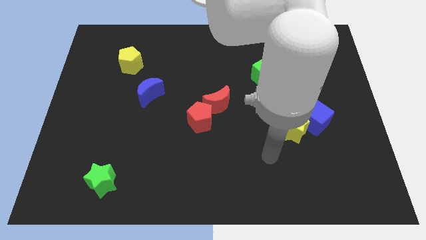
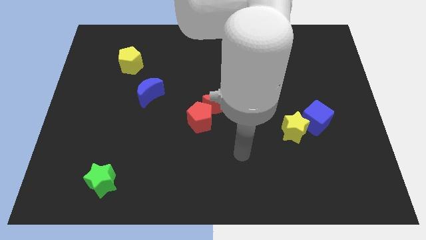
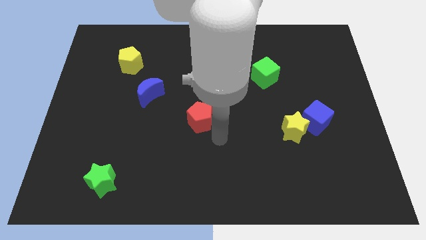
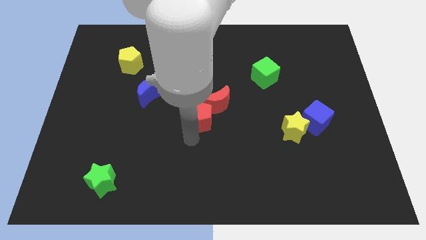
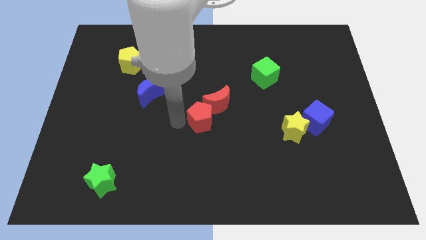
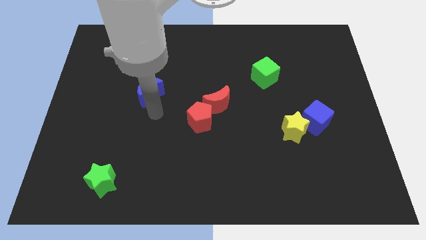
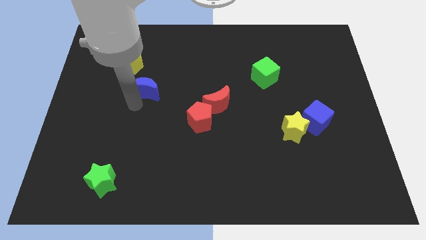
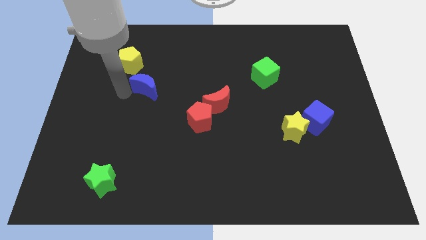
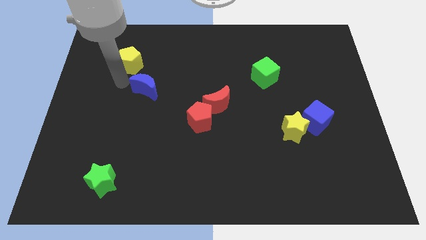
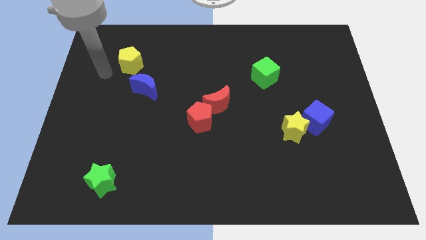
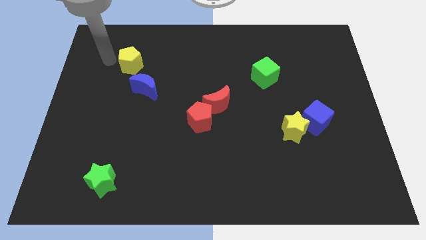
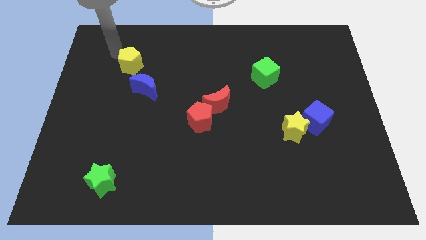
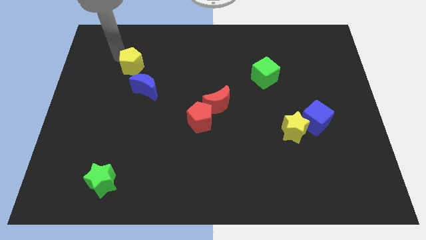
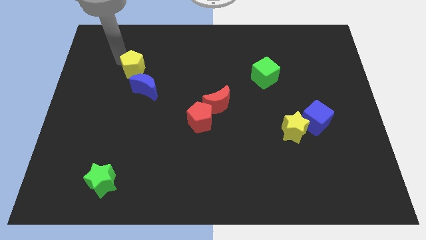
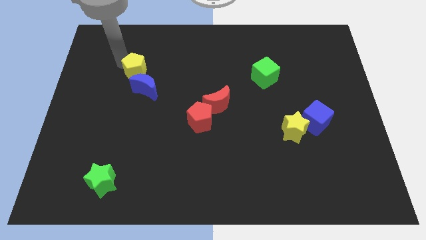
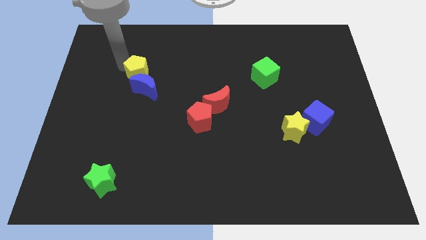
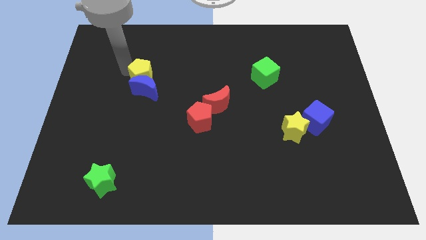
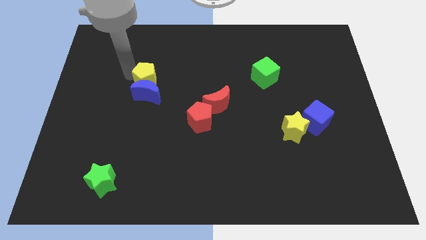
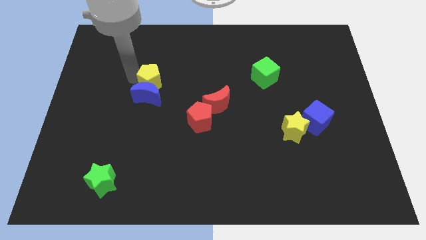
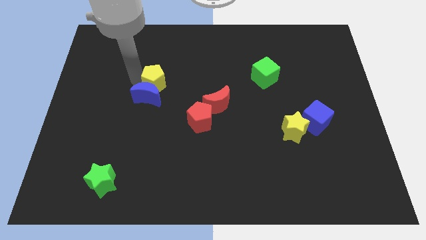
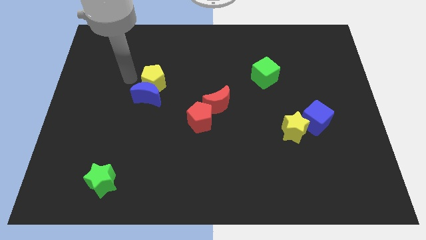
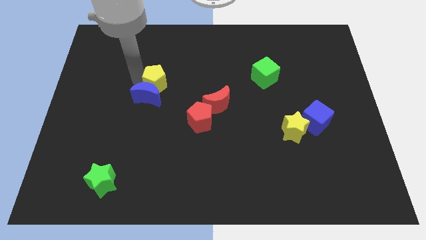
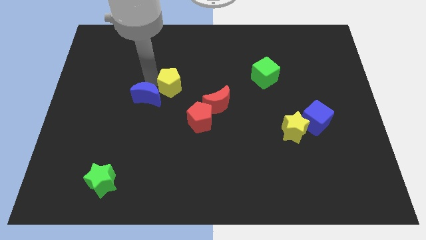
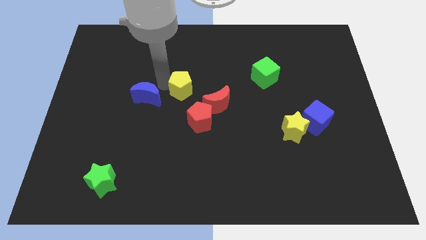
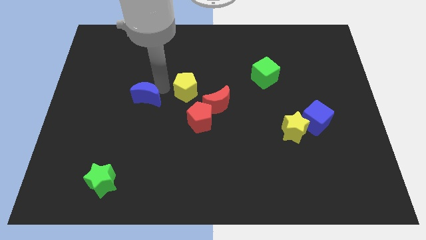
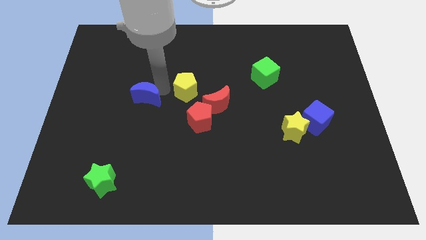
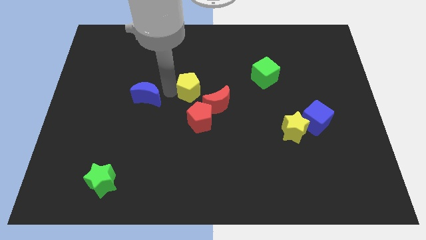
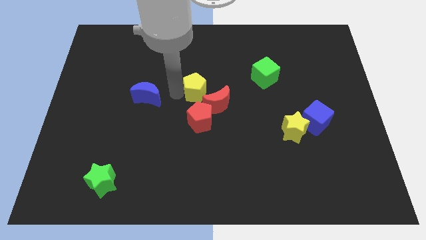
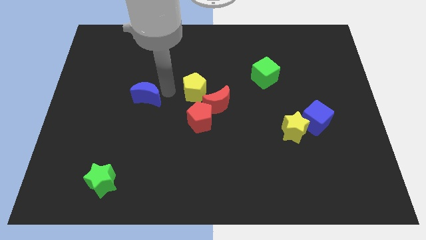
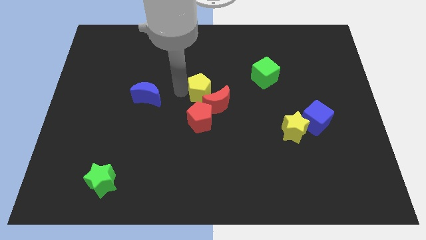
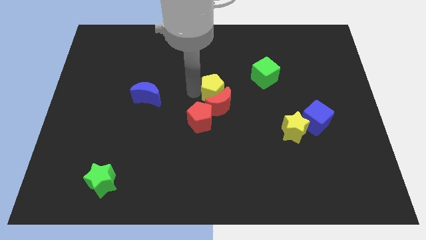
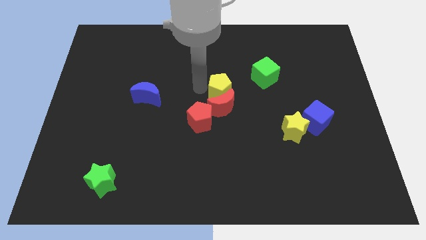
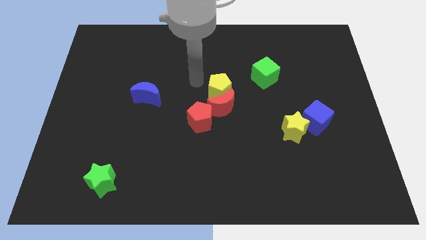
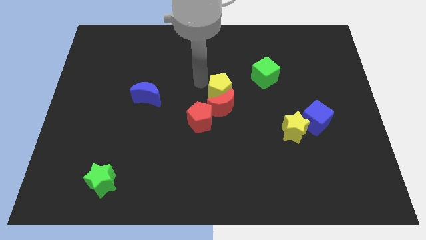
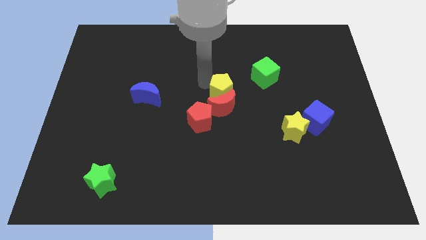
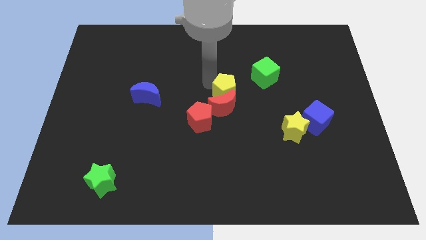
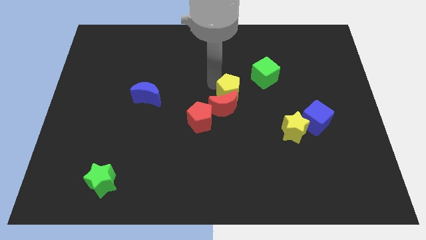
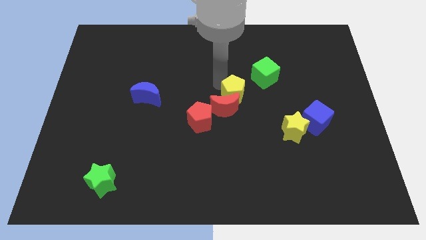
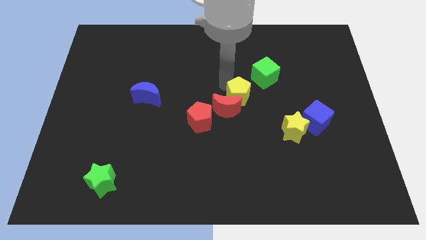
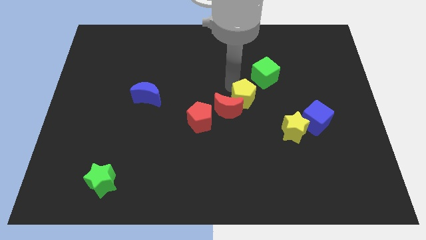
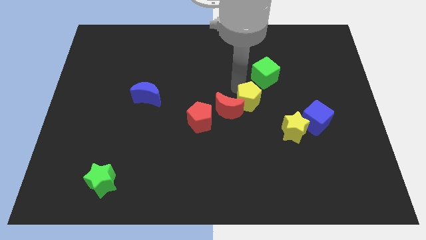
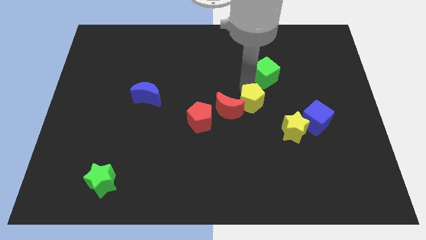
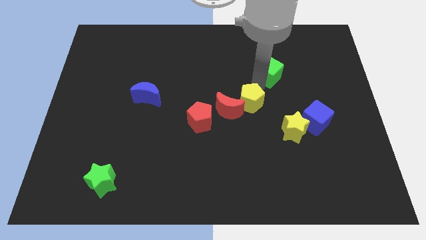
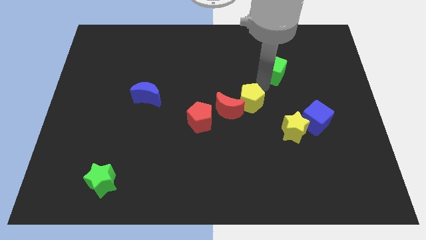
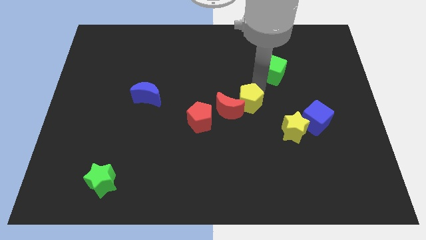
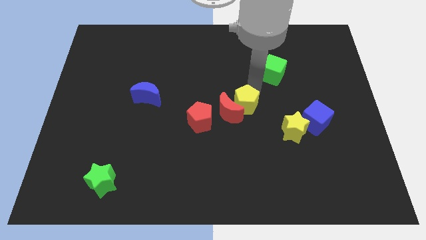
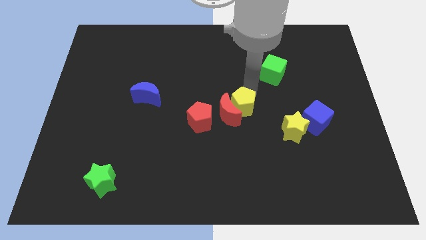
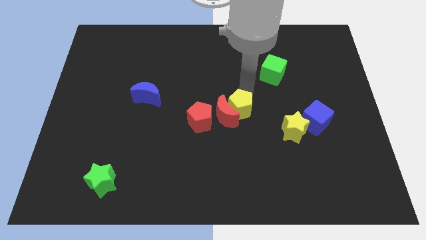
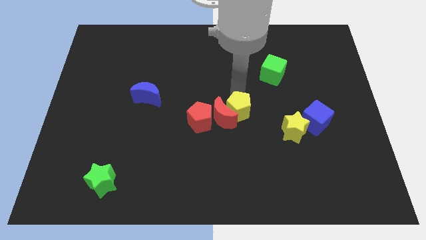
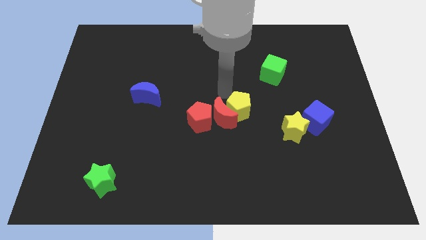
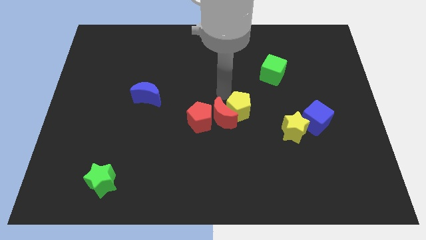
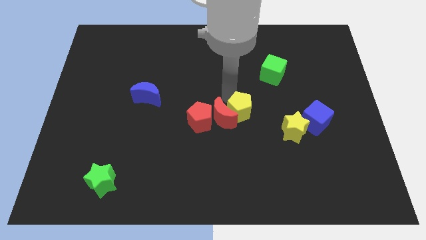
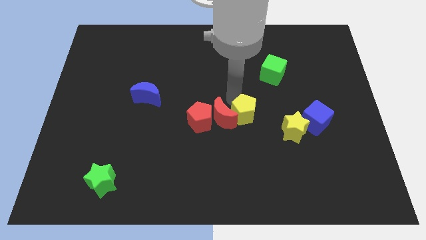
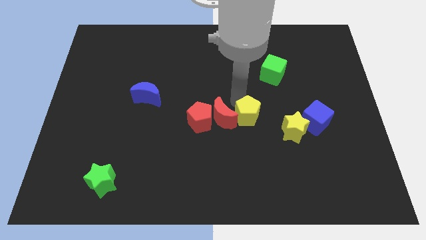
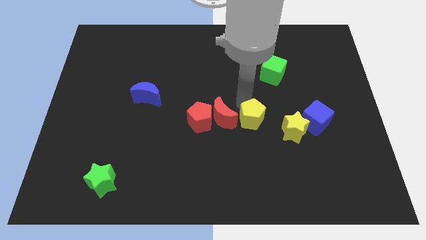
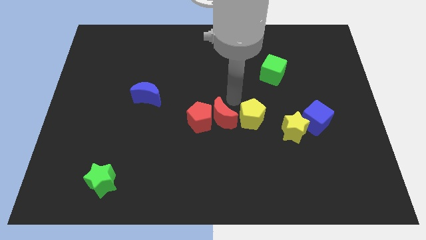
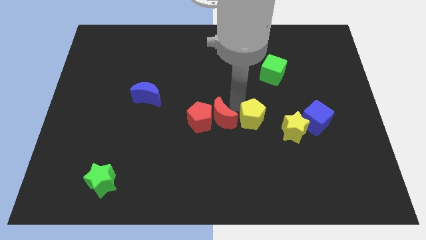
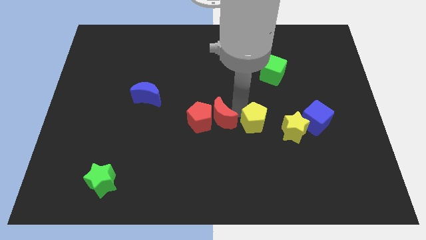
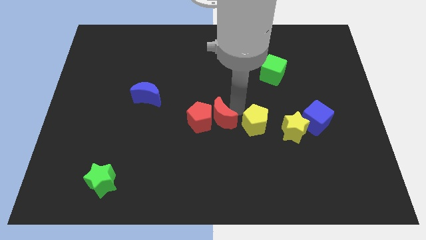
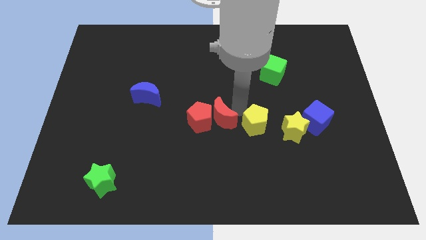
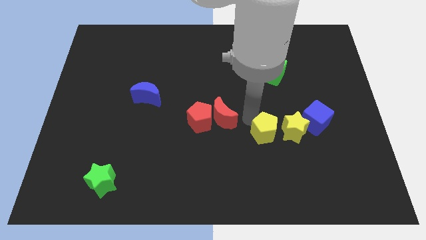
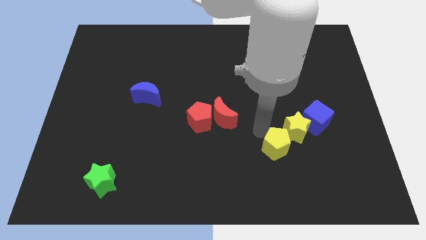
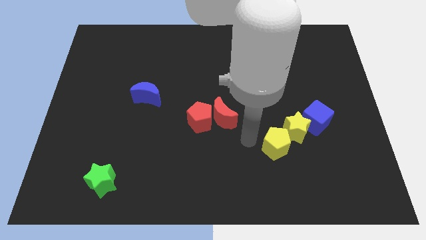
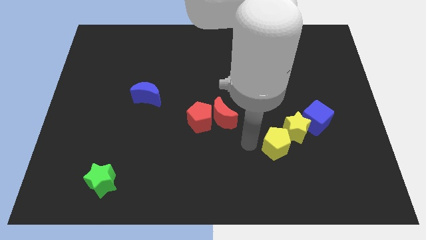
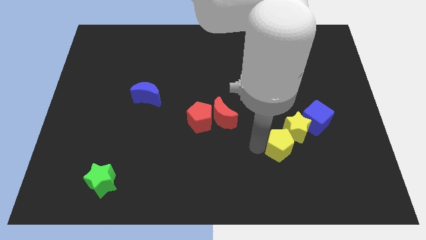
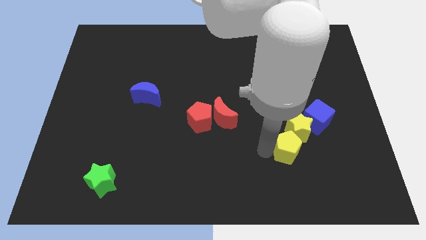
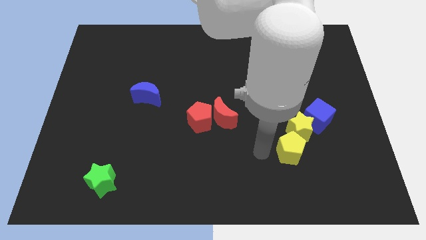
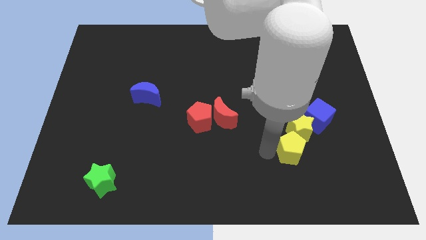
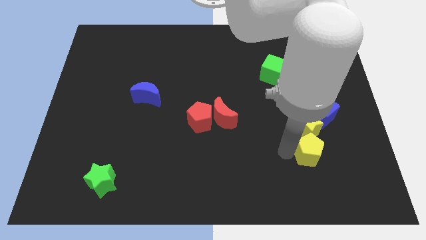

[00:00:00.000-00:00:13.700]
put the yellow pentagon diagonally down and to the right of the yellow star

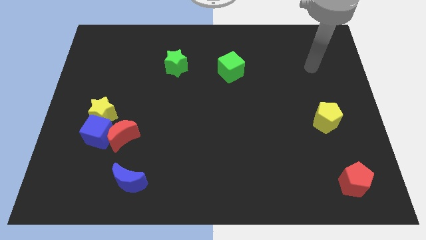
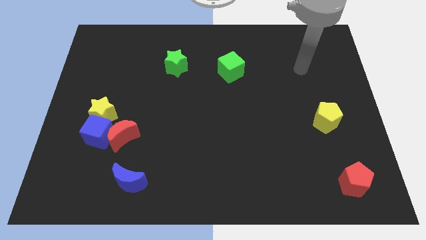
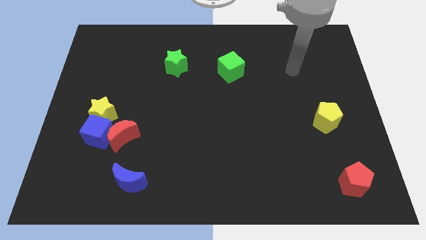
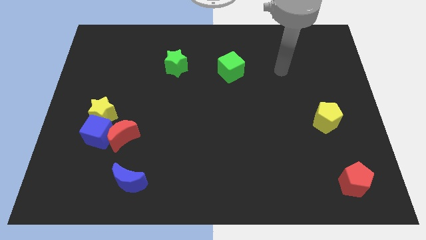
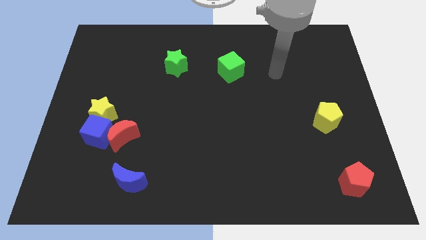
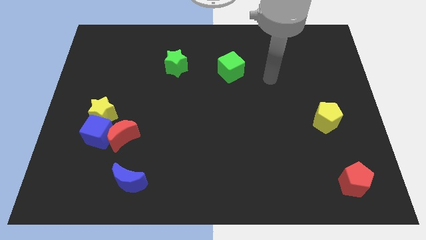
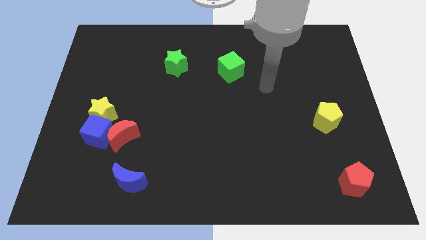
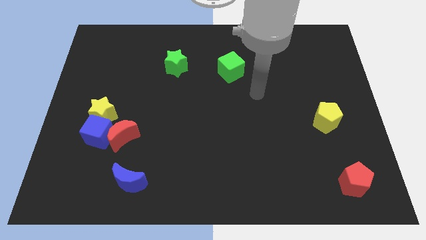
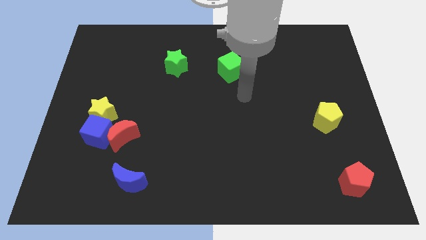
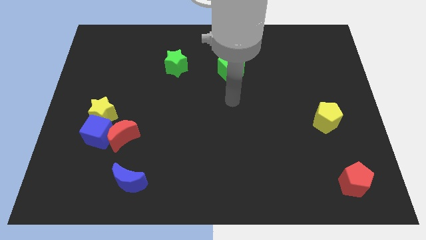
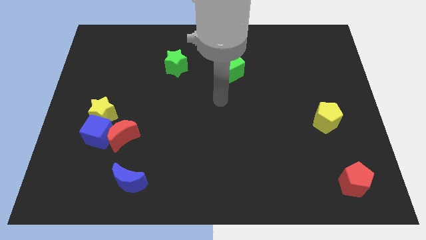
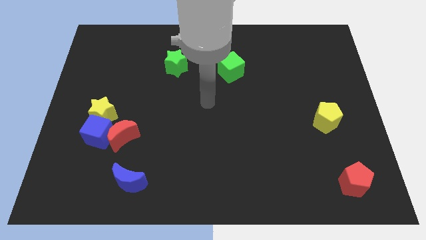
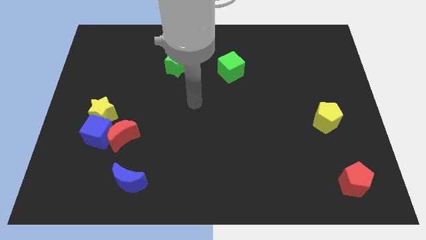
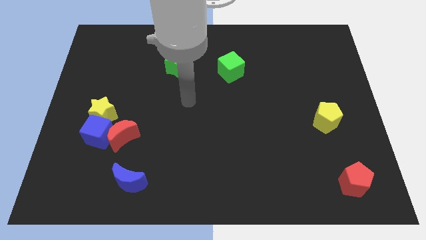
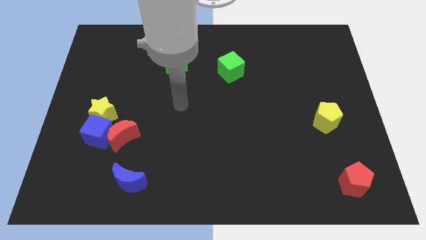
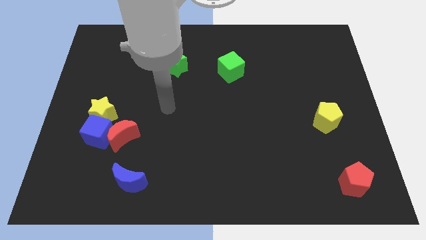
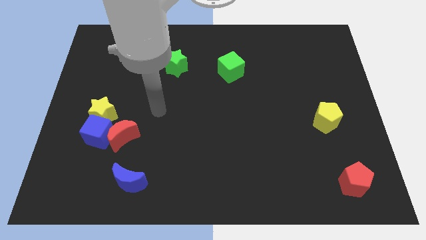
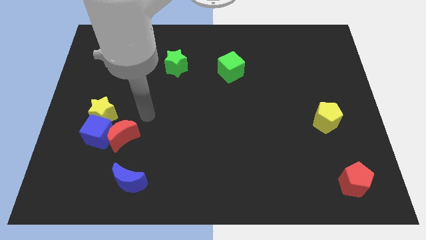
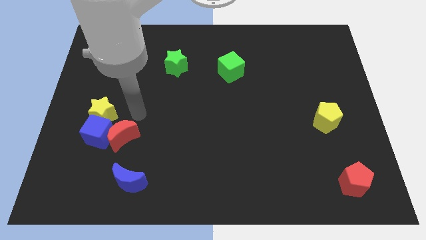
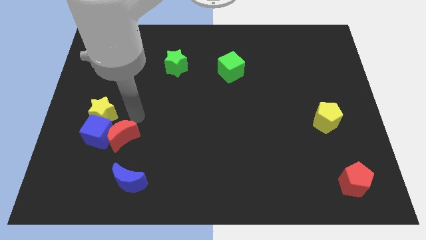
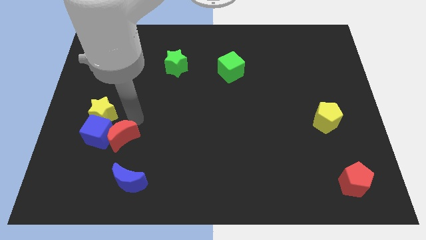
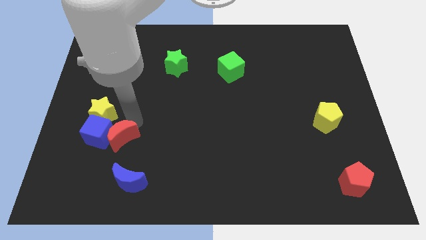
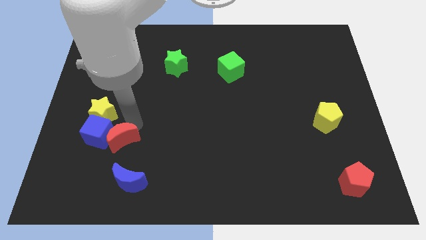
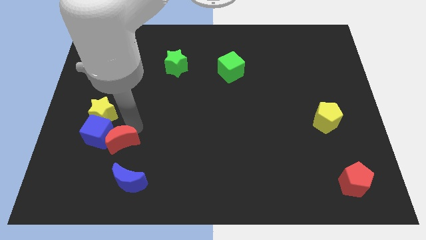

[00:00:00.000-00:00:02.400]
move the red moon diagonally up and to the left of the blue moon
